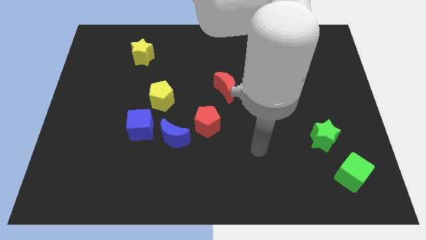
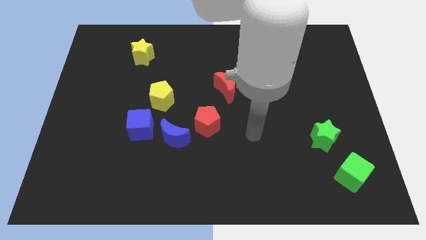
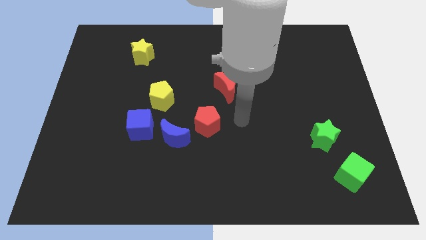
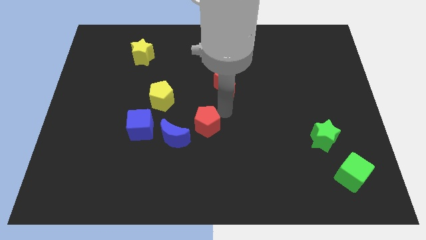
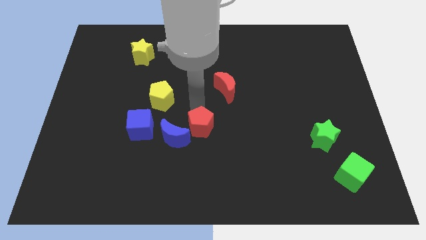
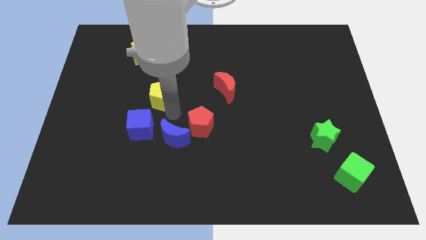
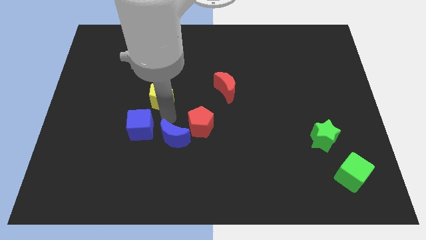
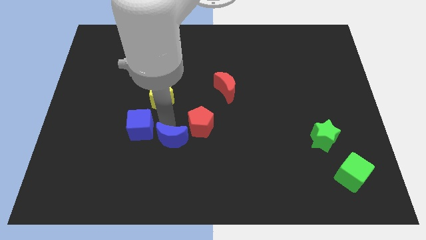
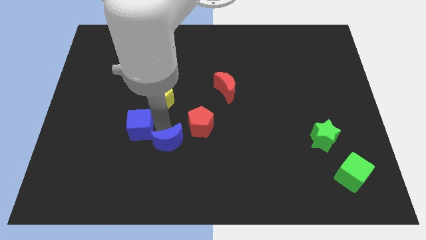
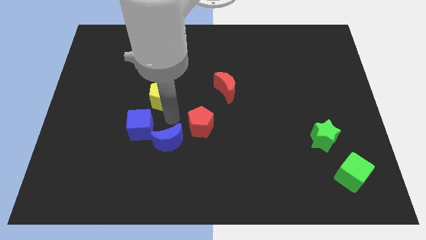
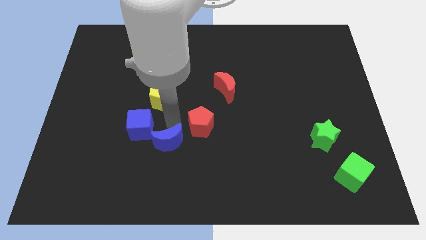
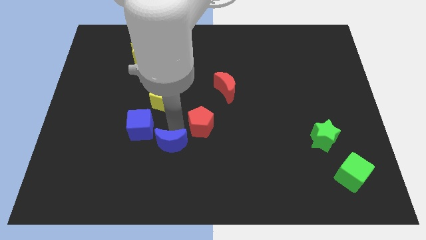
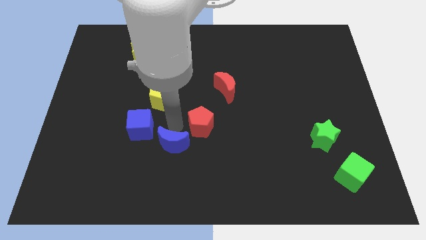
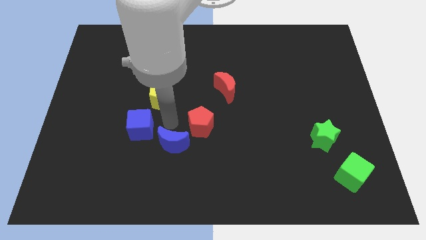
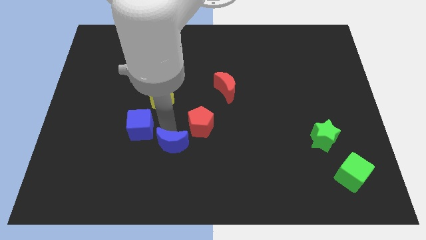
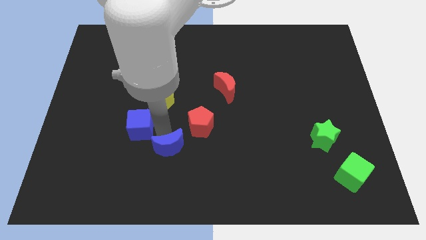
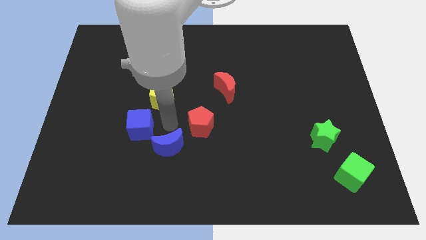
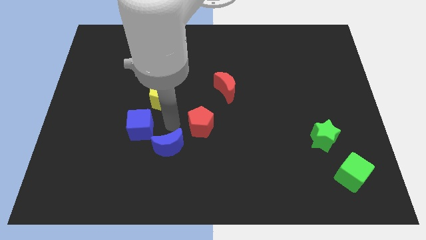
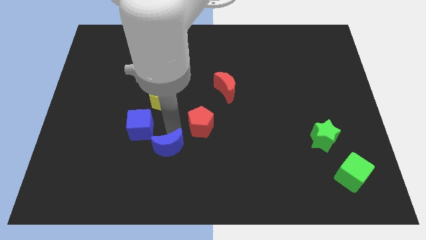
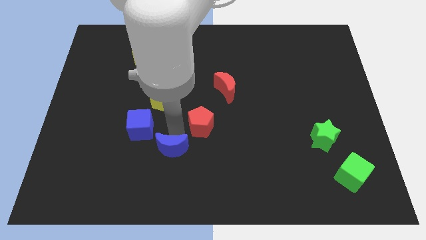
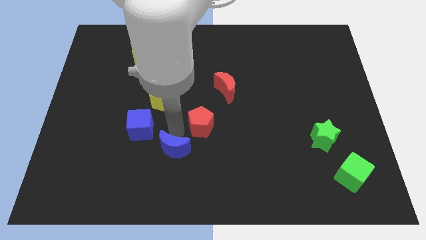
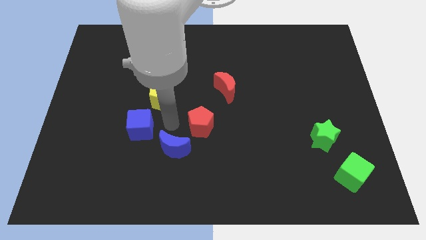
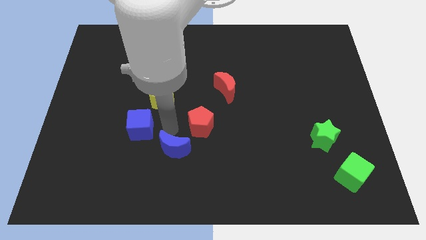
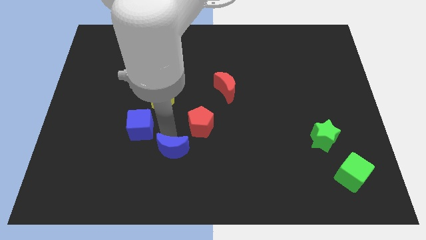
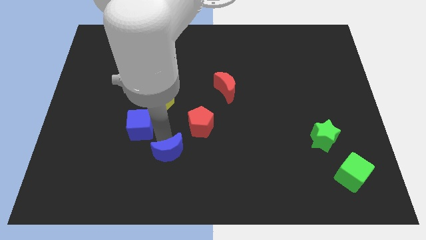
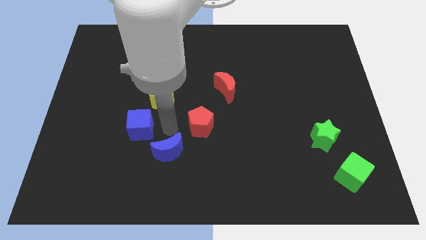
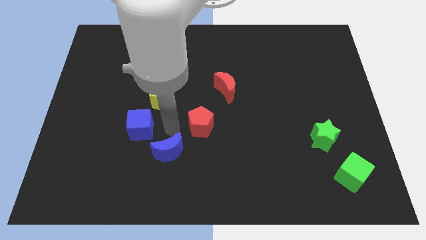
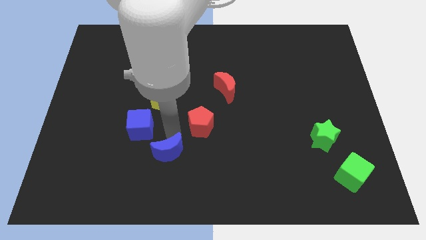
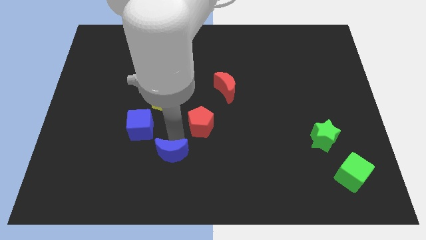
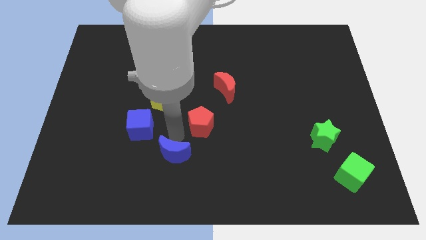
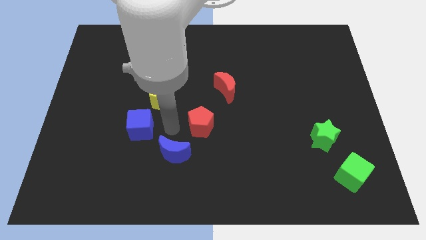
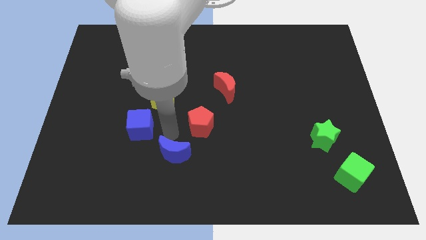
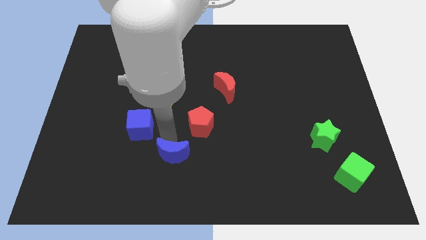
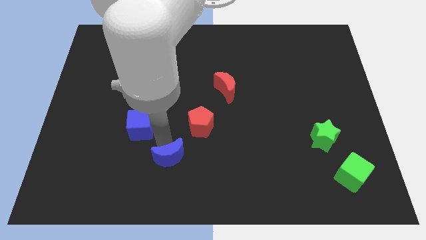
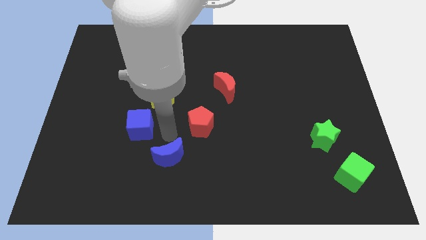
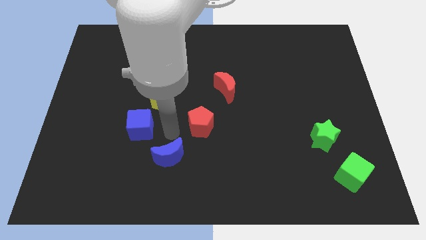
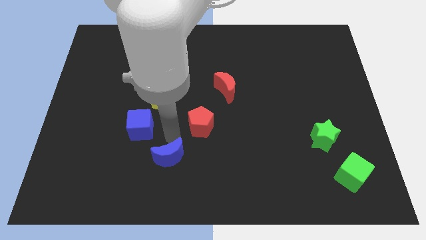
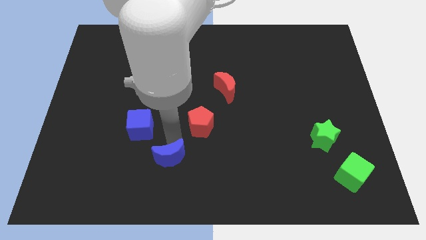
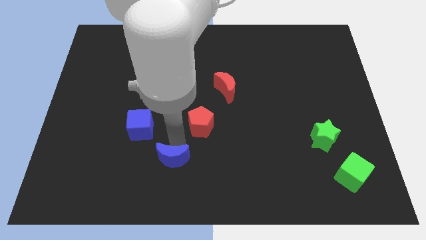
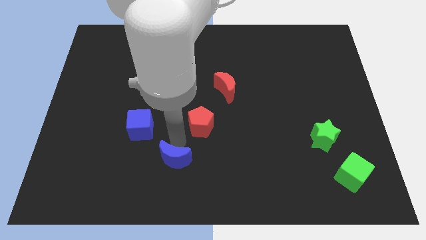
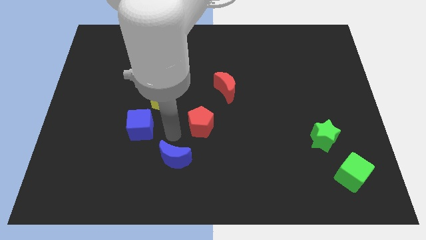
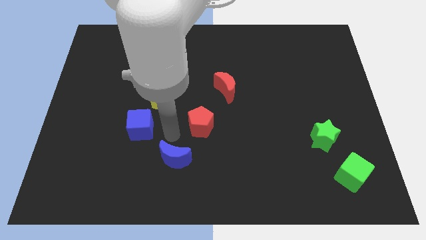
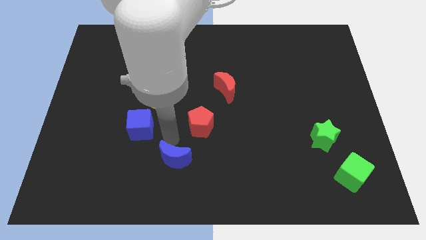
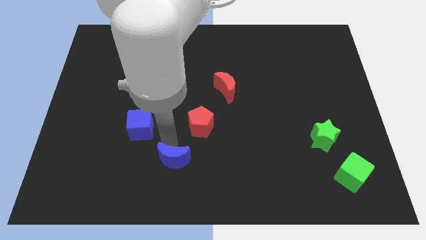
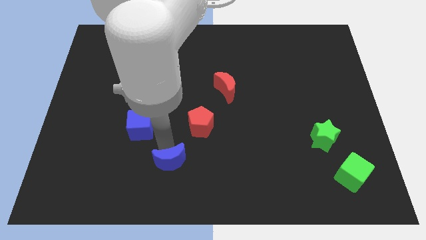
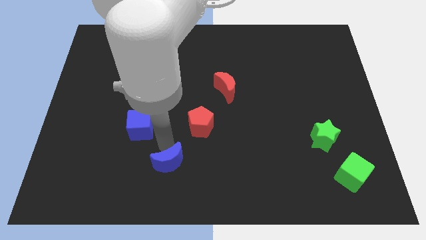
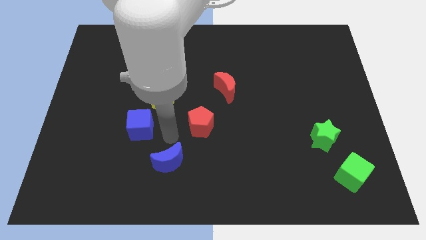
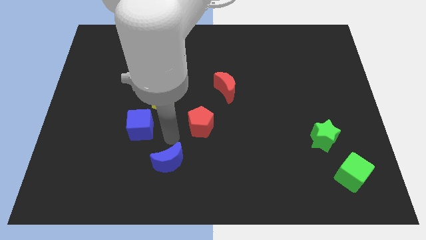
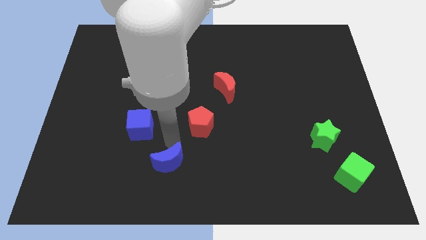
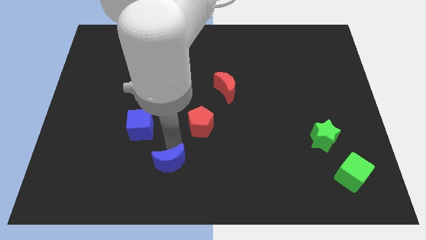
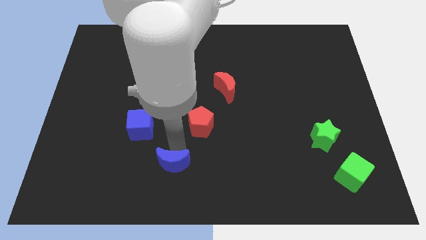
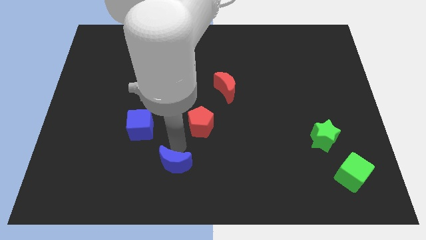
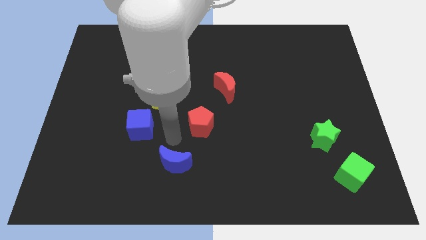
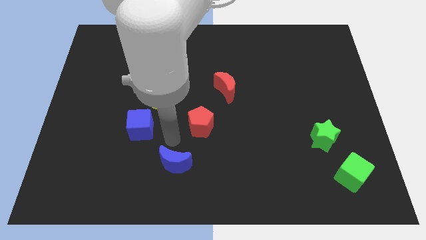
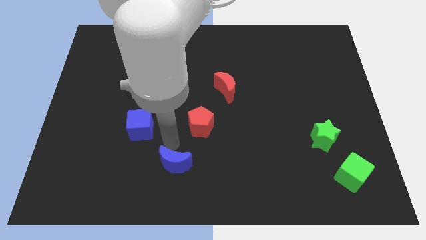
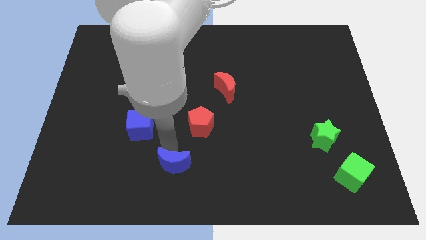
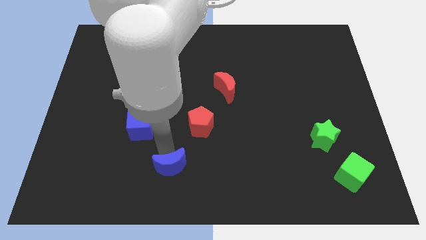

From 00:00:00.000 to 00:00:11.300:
pull the blue moon apart from the blue cube and red pentagon

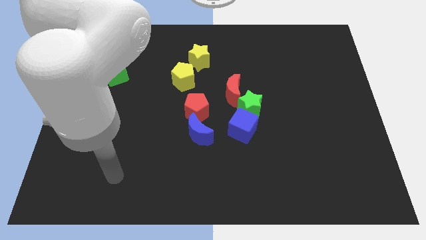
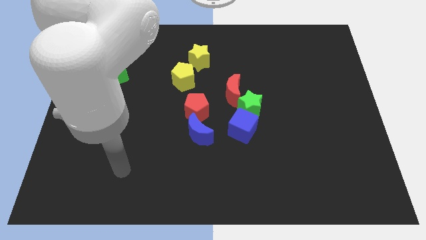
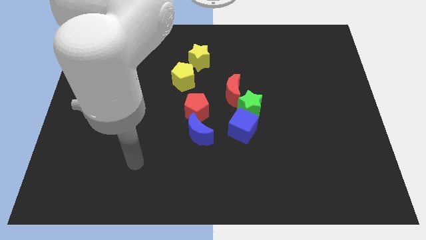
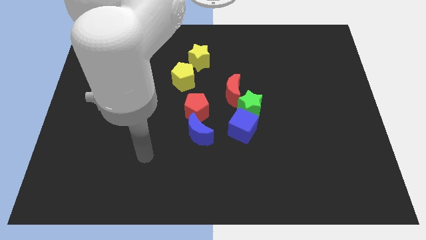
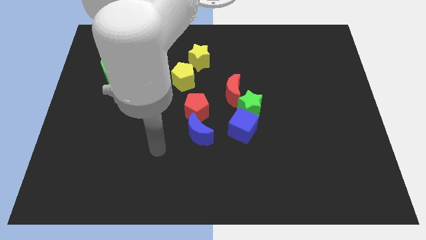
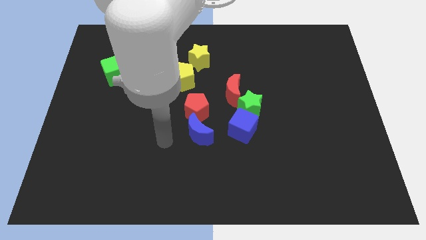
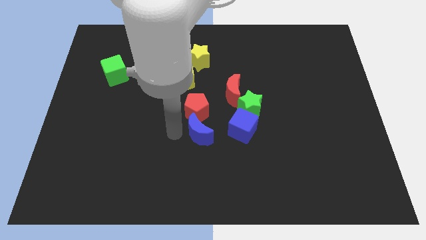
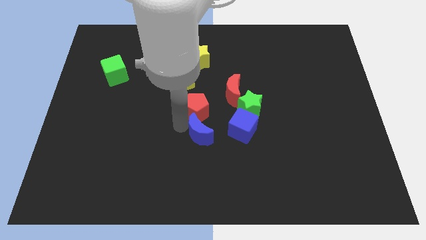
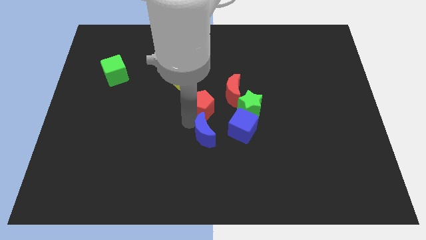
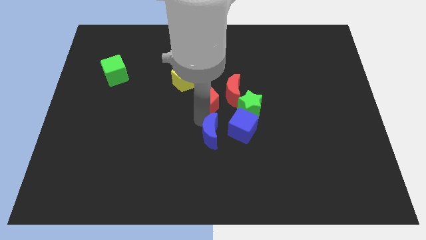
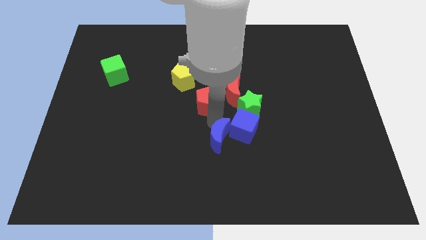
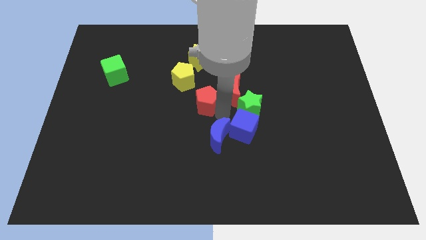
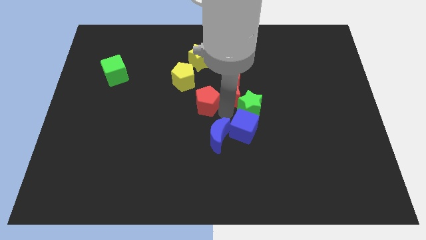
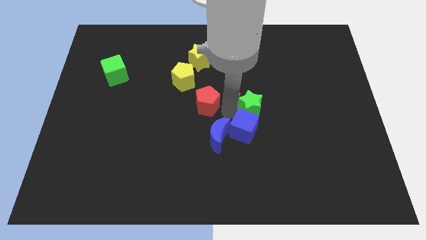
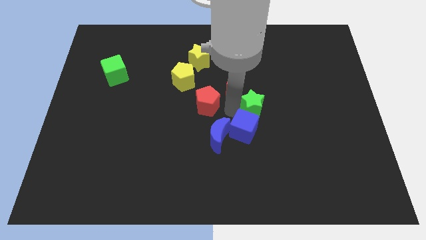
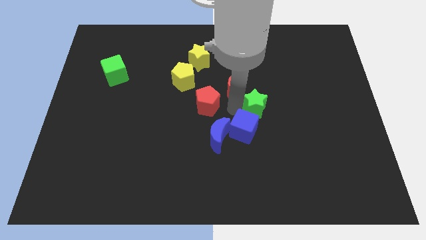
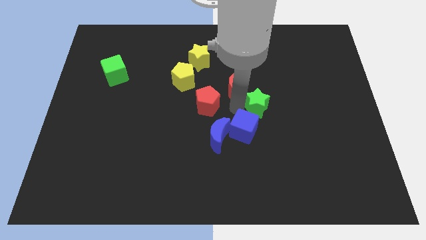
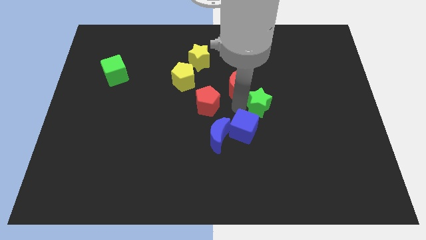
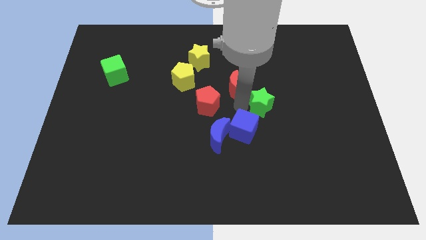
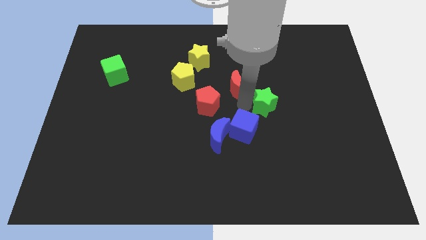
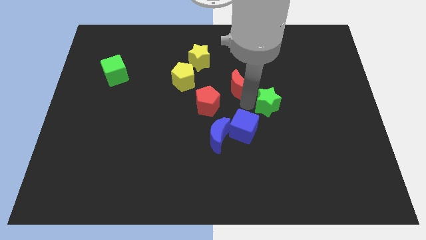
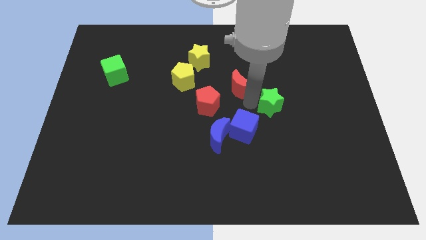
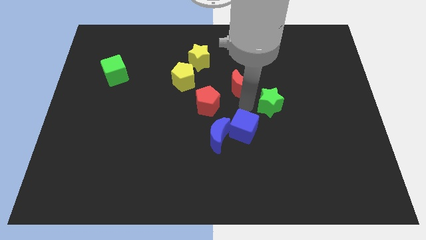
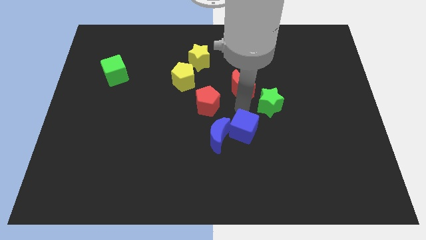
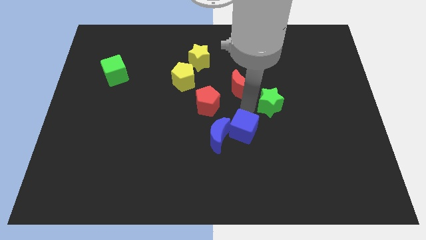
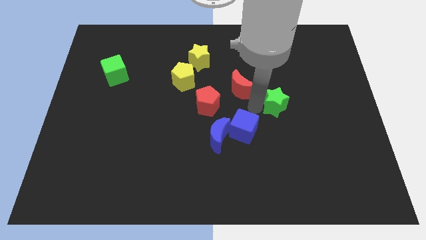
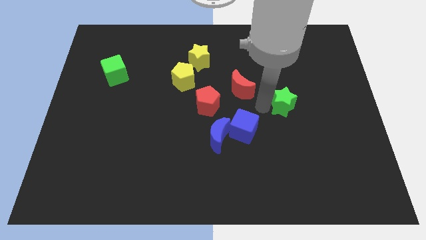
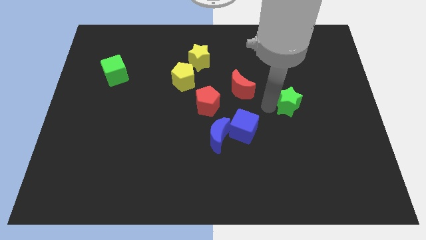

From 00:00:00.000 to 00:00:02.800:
pull the green star apart from the blue cube and red moon

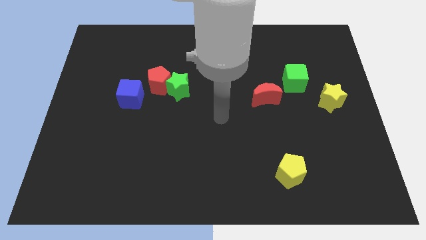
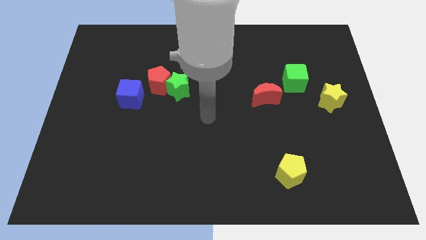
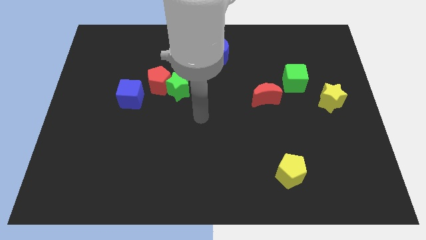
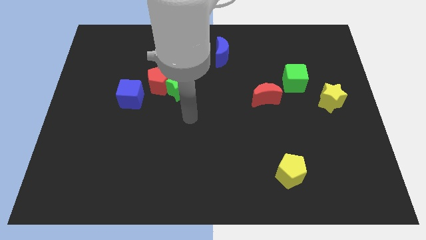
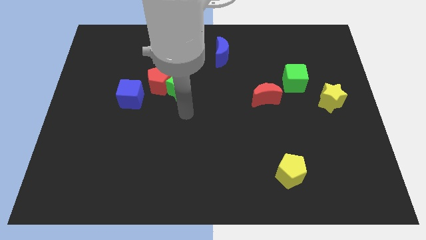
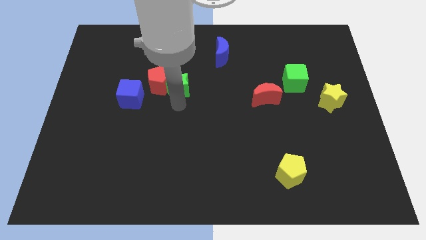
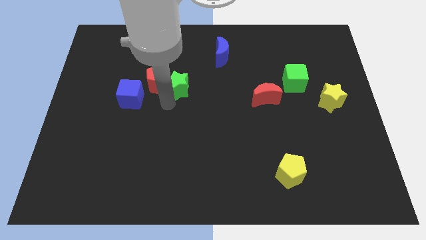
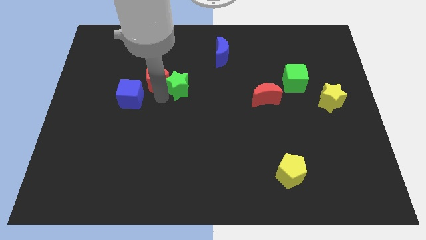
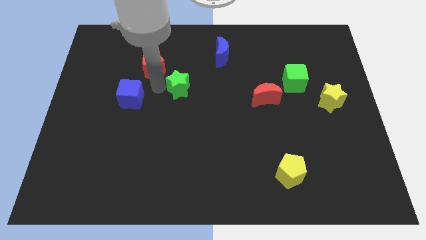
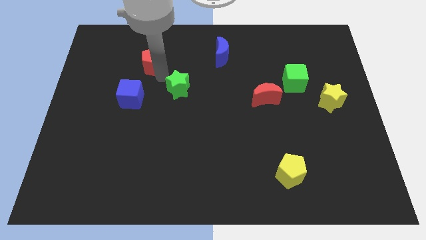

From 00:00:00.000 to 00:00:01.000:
pull the green star apart from the red pentagon
